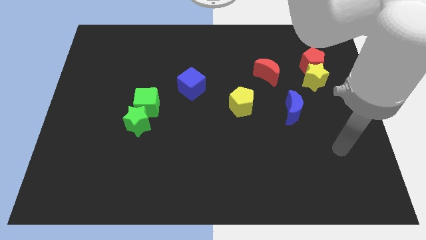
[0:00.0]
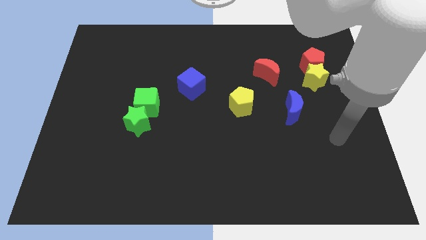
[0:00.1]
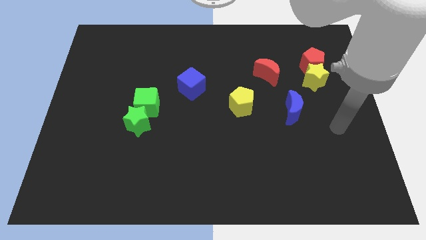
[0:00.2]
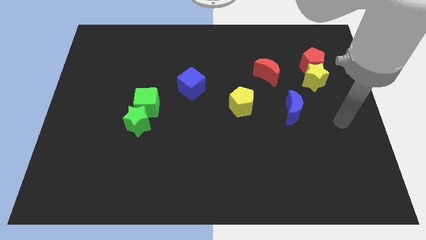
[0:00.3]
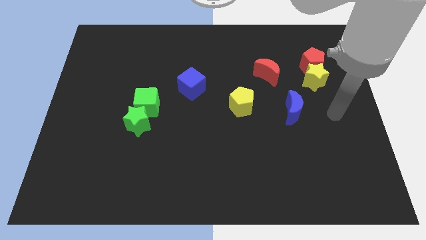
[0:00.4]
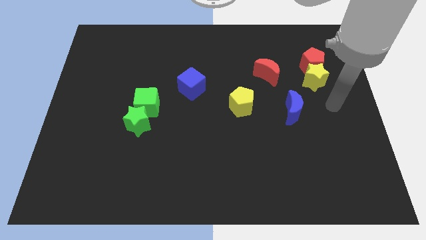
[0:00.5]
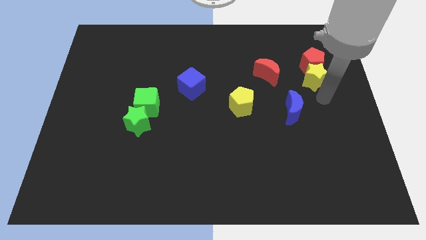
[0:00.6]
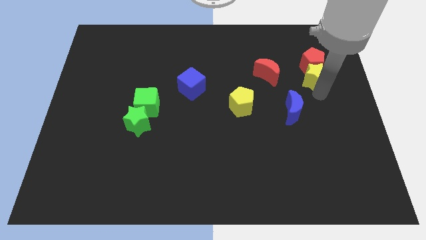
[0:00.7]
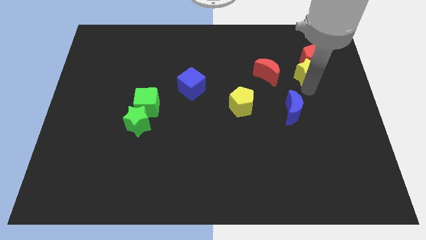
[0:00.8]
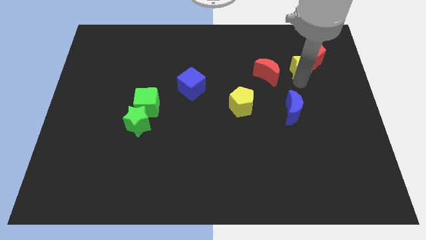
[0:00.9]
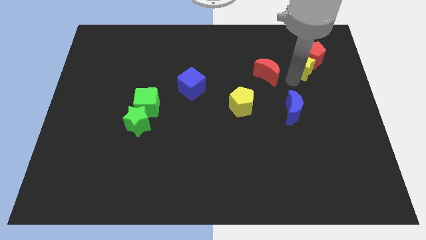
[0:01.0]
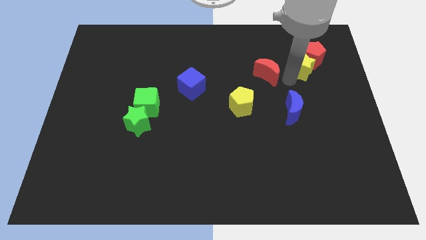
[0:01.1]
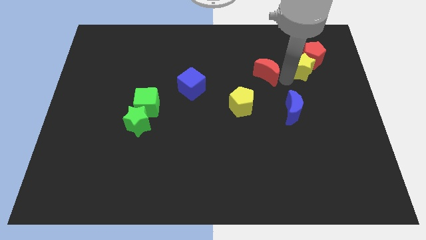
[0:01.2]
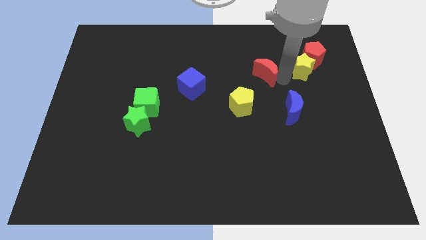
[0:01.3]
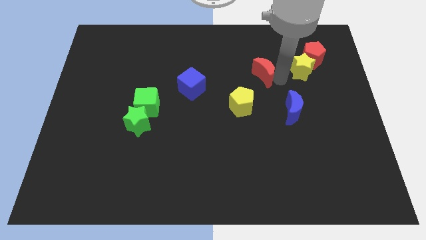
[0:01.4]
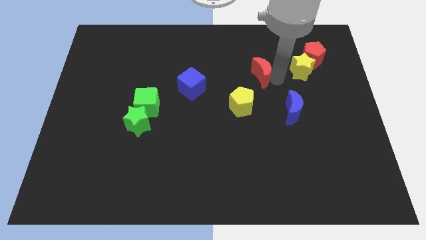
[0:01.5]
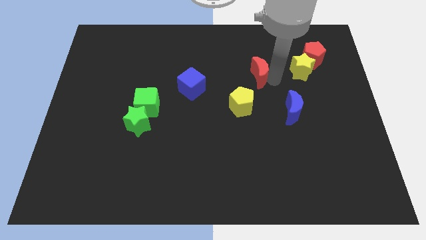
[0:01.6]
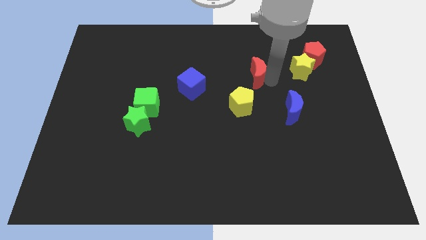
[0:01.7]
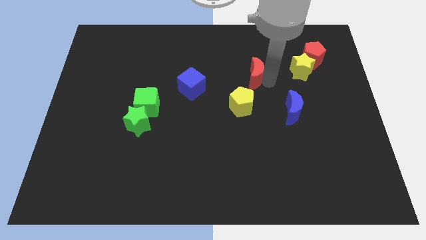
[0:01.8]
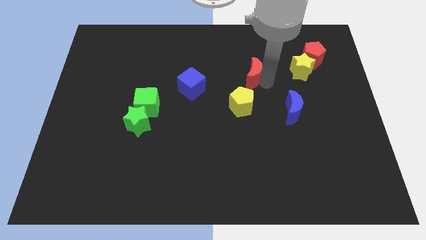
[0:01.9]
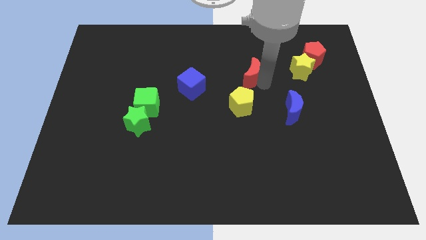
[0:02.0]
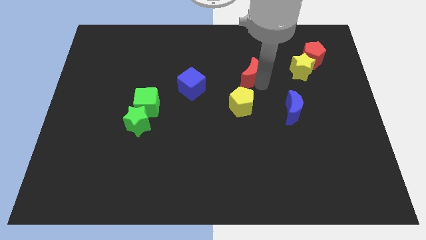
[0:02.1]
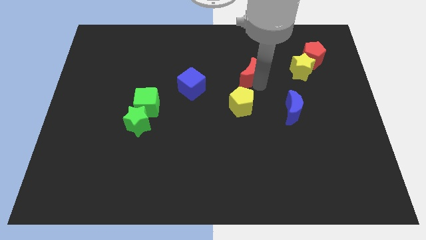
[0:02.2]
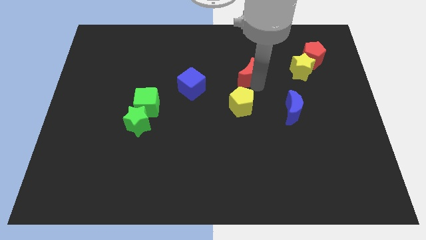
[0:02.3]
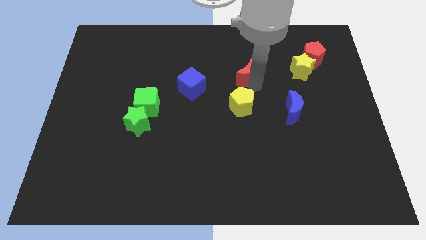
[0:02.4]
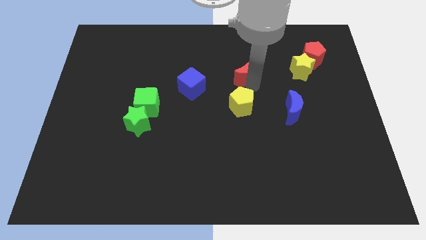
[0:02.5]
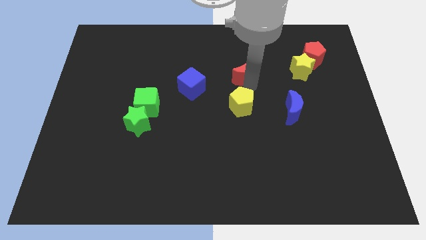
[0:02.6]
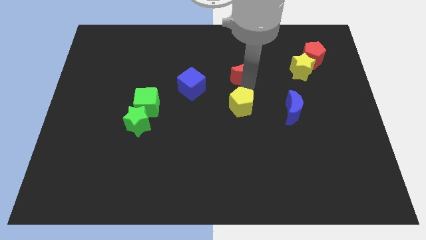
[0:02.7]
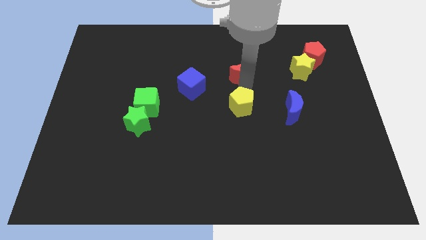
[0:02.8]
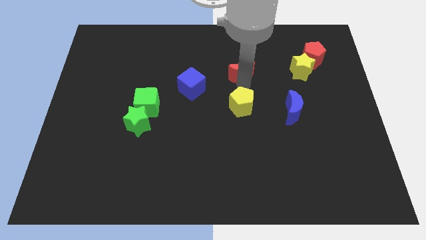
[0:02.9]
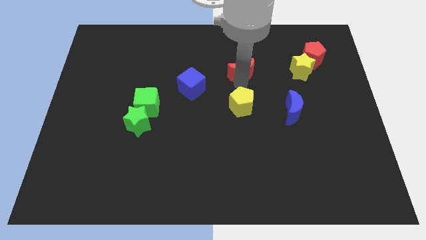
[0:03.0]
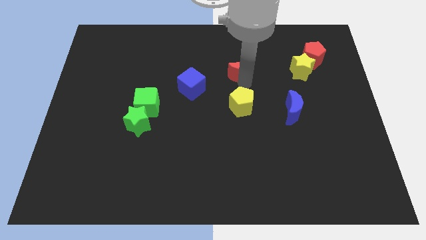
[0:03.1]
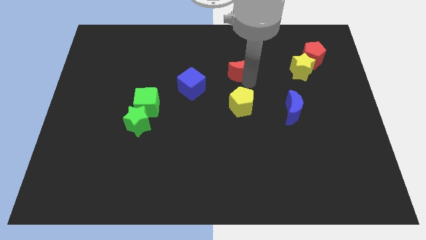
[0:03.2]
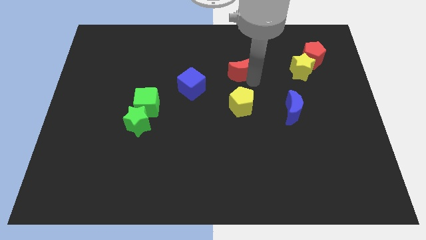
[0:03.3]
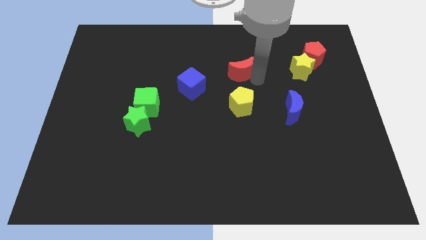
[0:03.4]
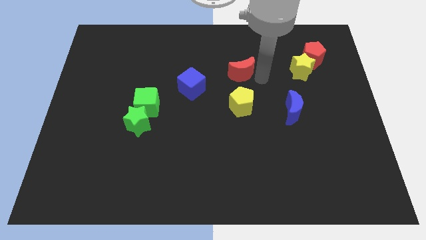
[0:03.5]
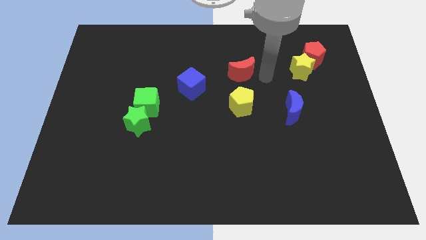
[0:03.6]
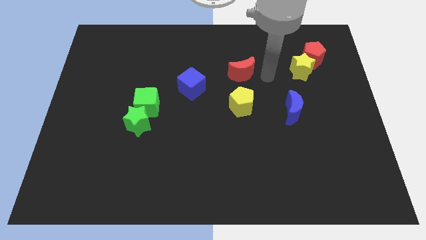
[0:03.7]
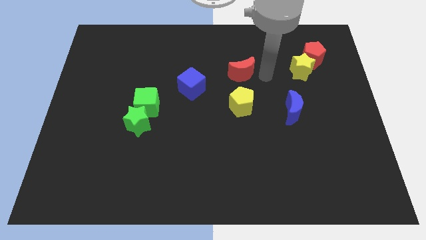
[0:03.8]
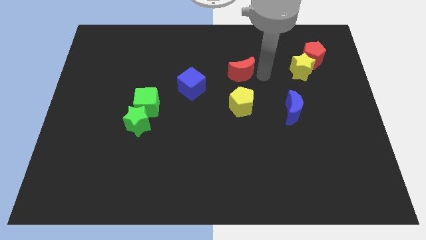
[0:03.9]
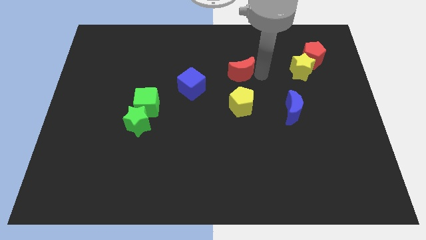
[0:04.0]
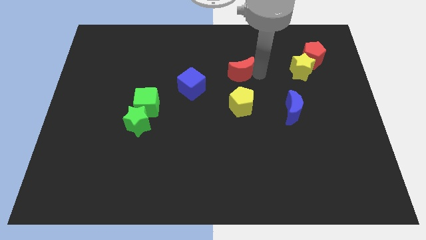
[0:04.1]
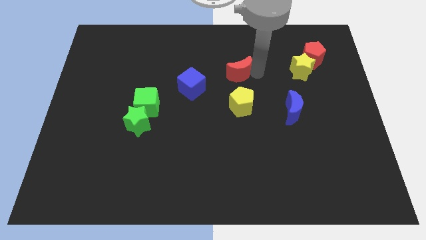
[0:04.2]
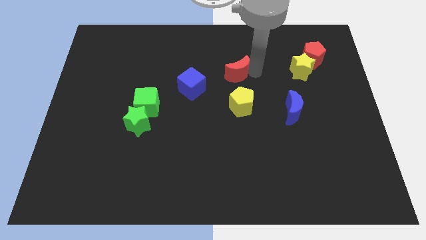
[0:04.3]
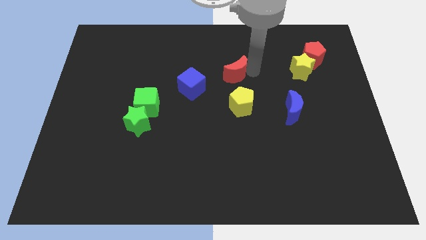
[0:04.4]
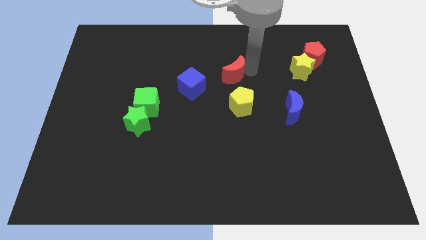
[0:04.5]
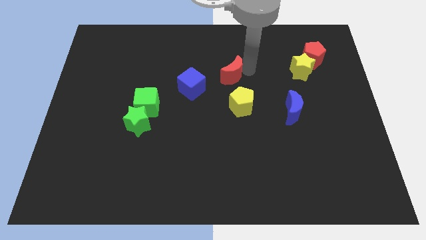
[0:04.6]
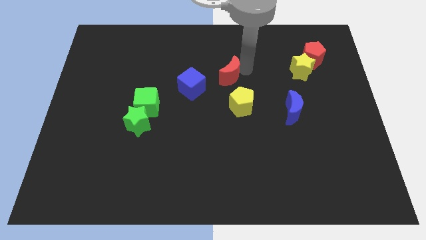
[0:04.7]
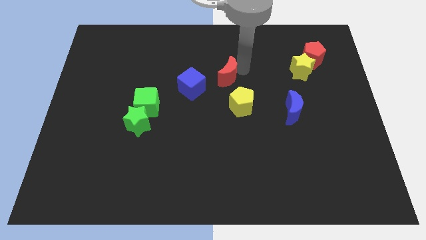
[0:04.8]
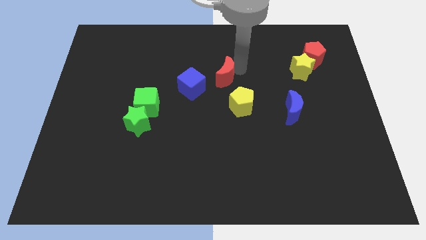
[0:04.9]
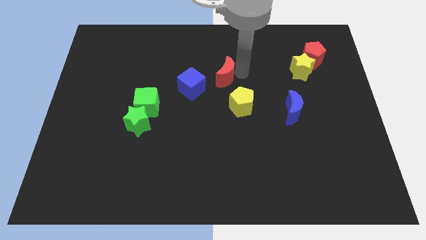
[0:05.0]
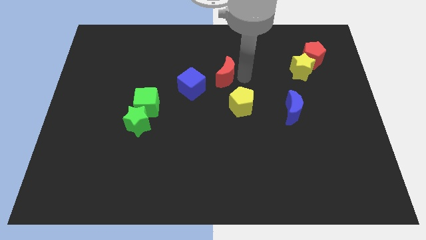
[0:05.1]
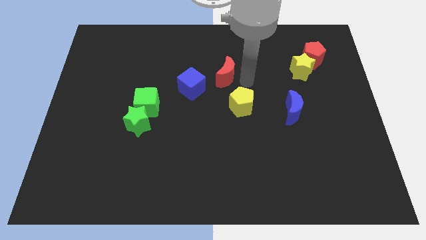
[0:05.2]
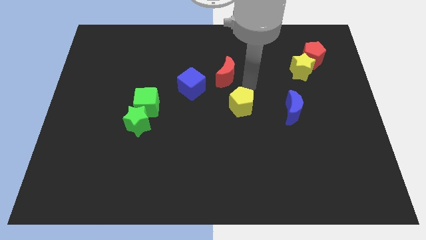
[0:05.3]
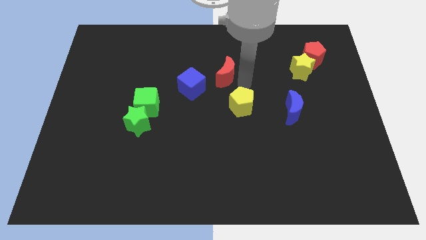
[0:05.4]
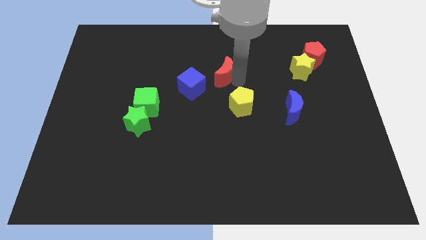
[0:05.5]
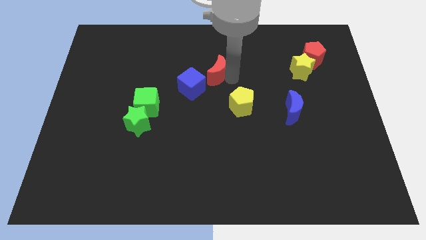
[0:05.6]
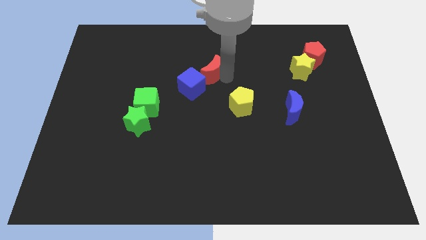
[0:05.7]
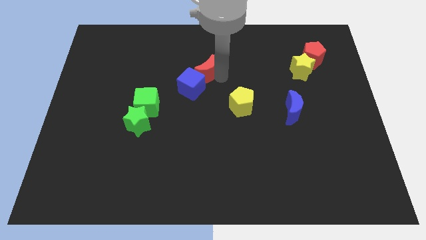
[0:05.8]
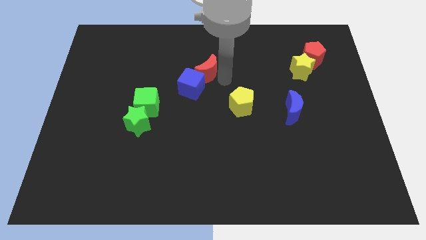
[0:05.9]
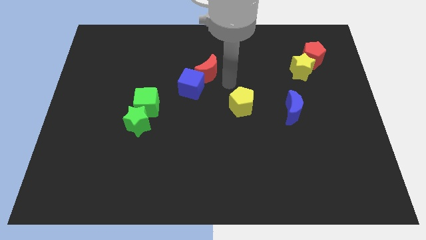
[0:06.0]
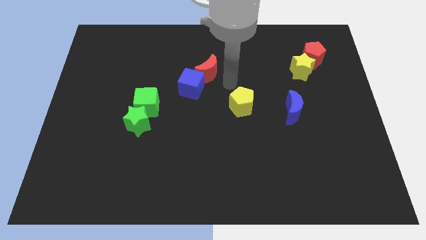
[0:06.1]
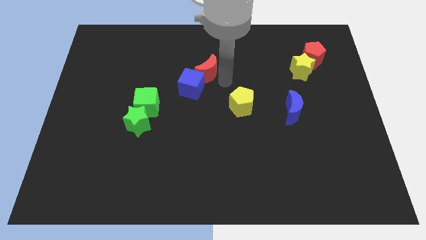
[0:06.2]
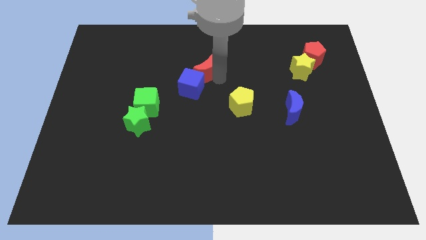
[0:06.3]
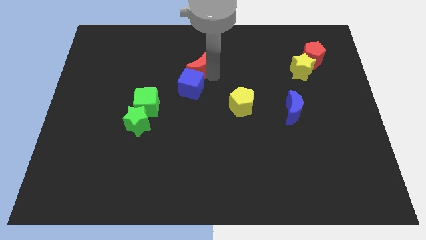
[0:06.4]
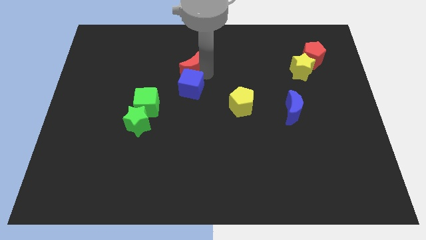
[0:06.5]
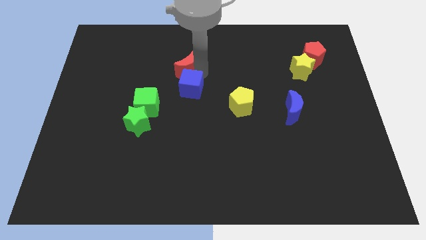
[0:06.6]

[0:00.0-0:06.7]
push the red moon to the left

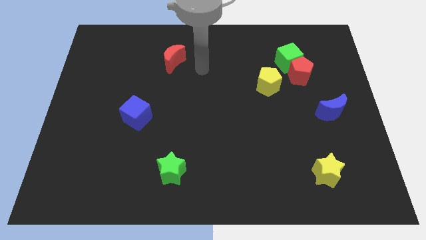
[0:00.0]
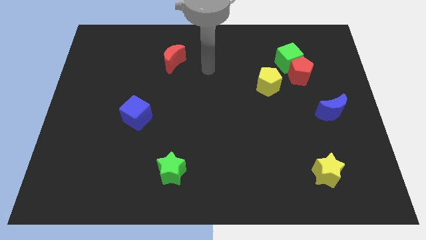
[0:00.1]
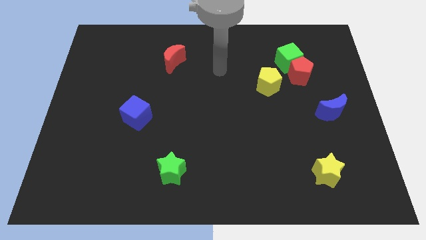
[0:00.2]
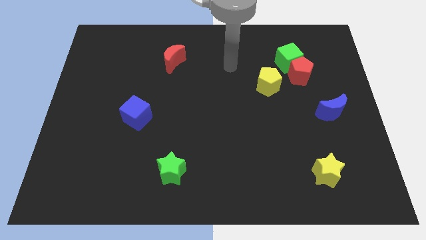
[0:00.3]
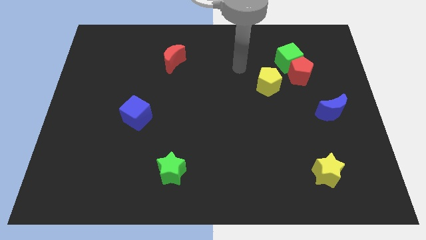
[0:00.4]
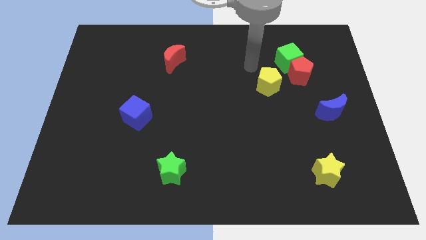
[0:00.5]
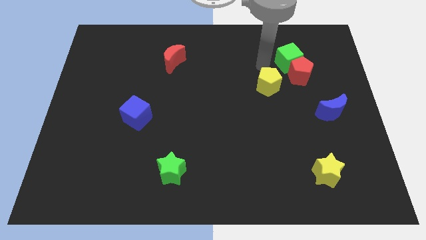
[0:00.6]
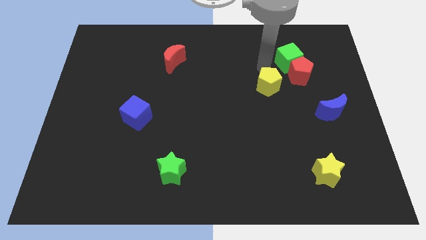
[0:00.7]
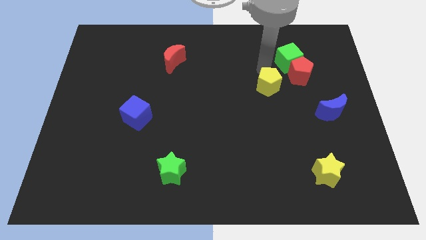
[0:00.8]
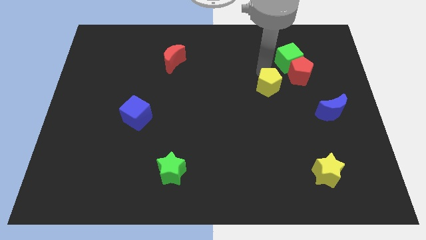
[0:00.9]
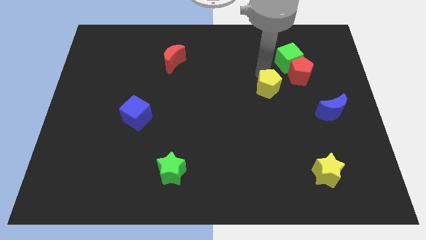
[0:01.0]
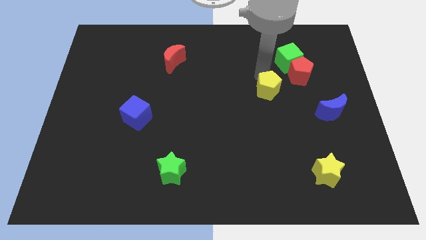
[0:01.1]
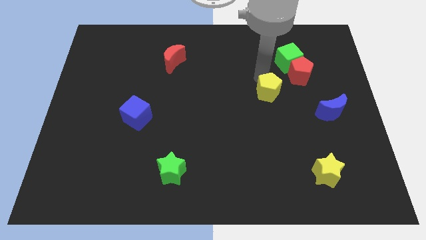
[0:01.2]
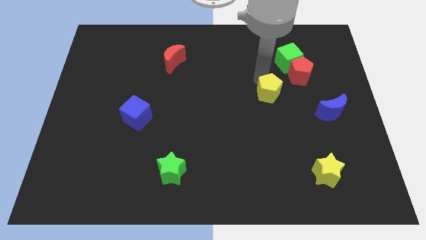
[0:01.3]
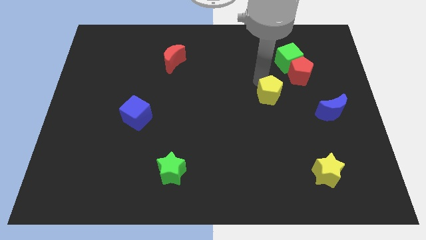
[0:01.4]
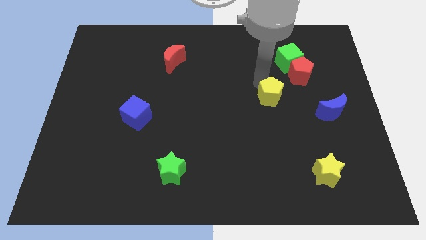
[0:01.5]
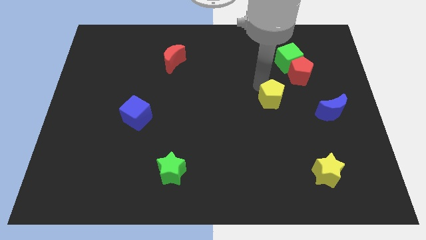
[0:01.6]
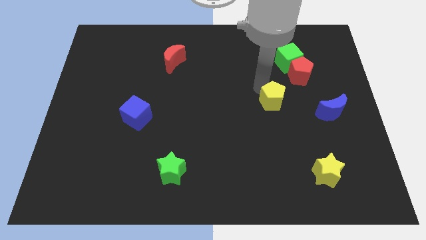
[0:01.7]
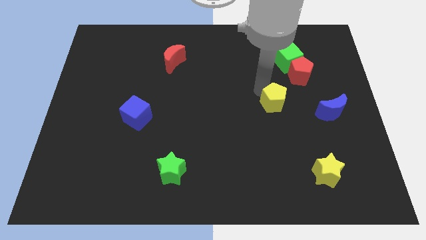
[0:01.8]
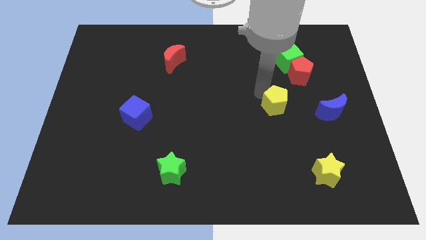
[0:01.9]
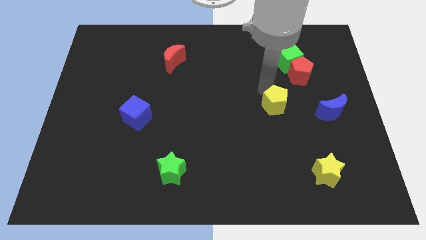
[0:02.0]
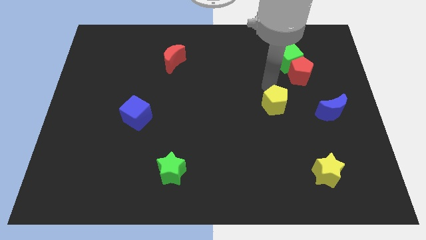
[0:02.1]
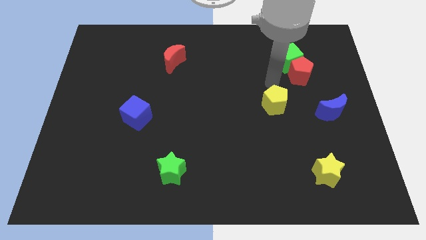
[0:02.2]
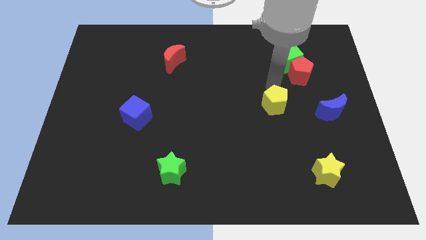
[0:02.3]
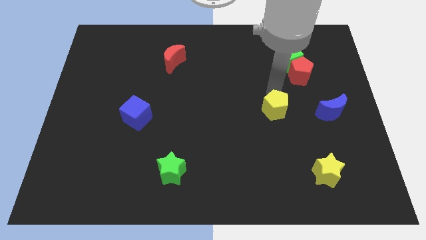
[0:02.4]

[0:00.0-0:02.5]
move the yellow pentagon down a bit
